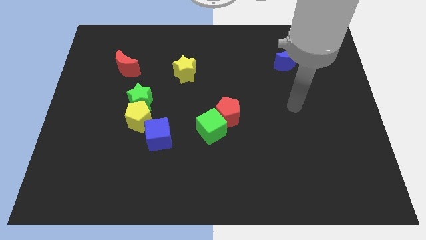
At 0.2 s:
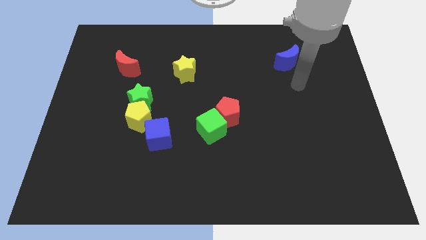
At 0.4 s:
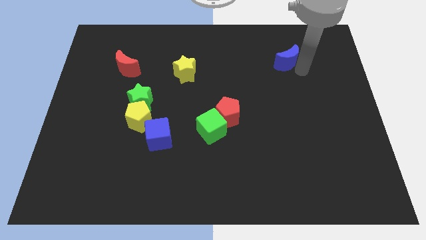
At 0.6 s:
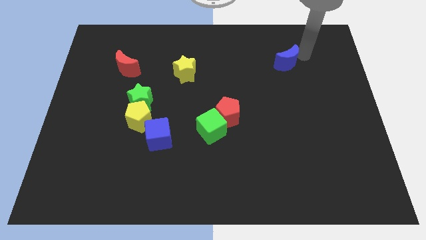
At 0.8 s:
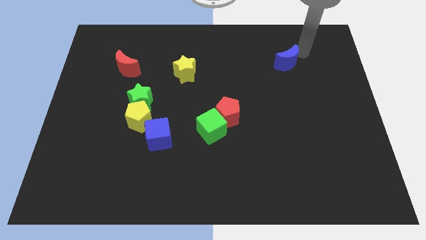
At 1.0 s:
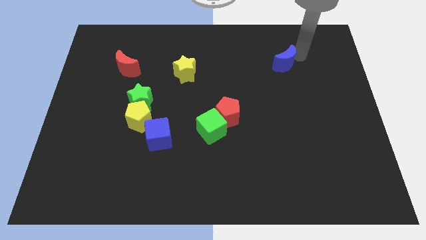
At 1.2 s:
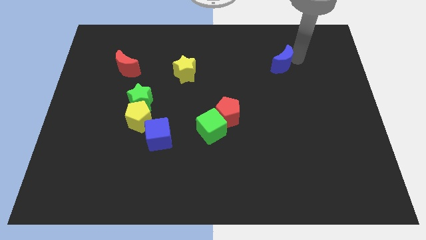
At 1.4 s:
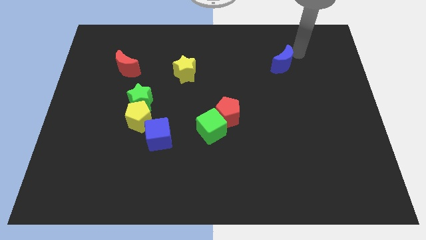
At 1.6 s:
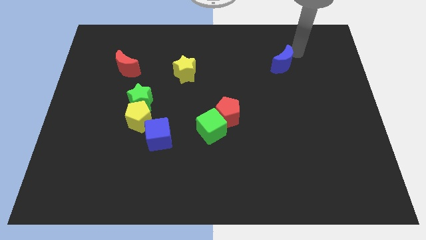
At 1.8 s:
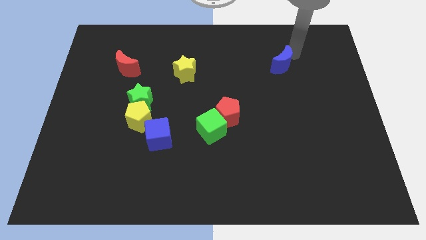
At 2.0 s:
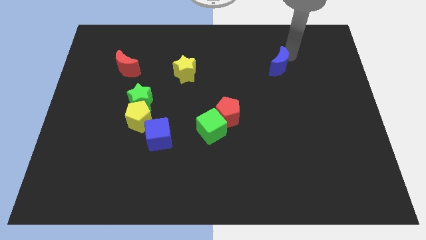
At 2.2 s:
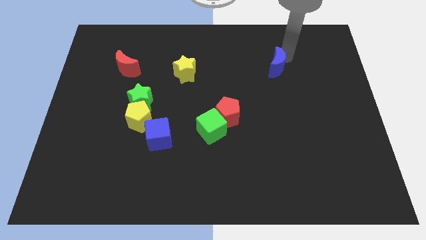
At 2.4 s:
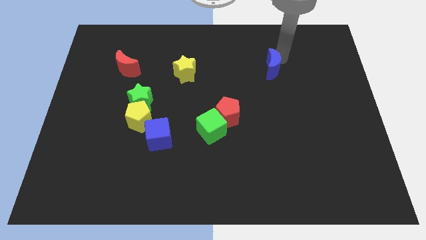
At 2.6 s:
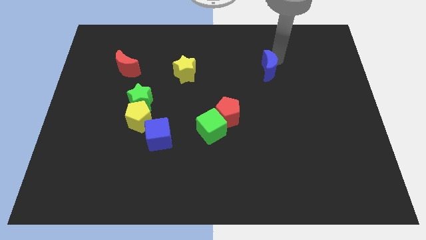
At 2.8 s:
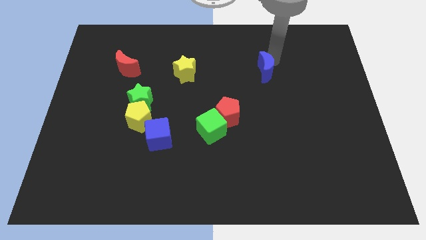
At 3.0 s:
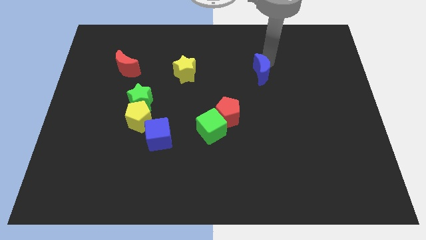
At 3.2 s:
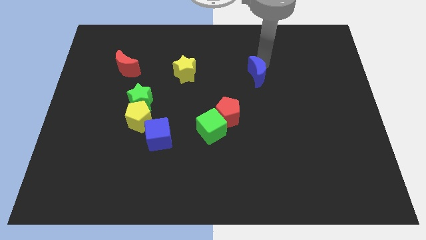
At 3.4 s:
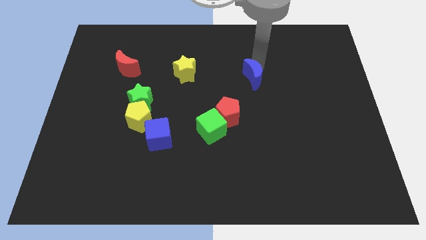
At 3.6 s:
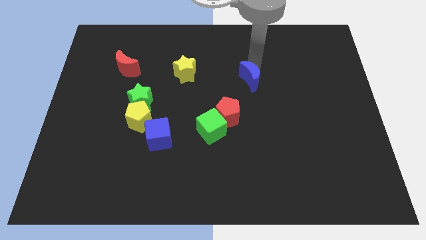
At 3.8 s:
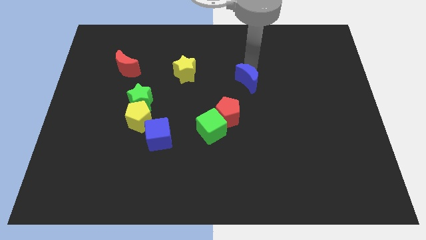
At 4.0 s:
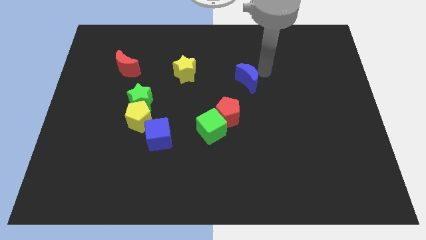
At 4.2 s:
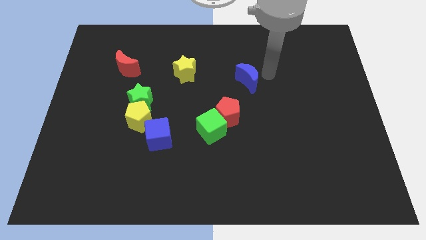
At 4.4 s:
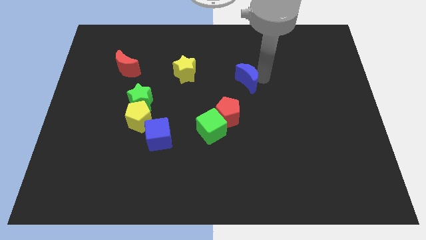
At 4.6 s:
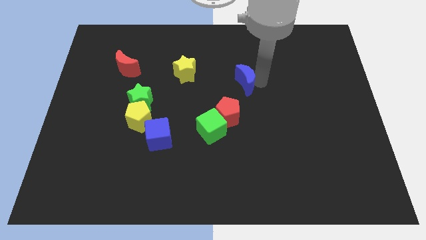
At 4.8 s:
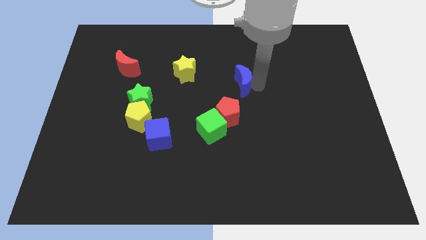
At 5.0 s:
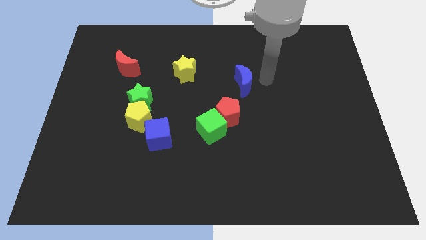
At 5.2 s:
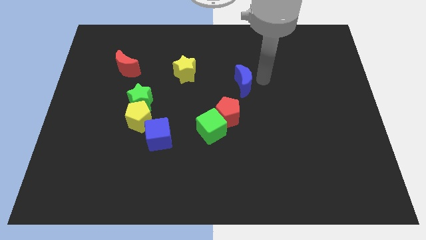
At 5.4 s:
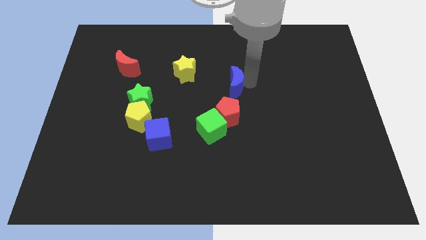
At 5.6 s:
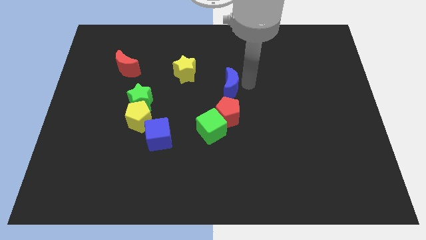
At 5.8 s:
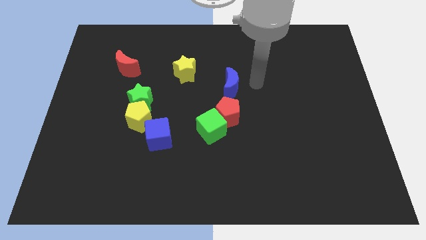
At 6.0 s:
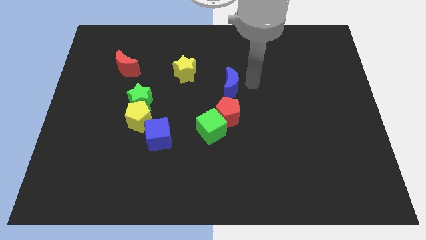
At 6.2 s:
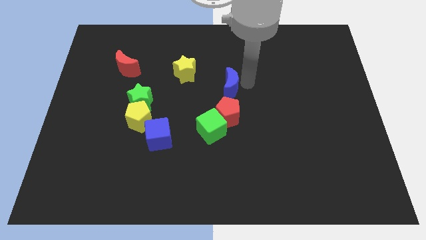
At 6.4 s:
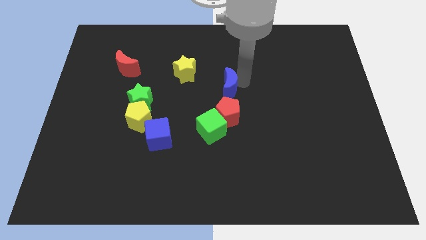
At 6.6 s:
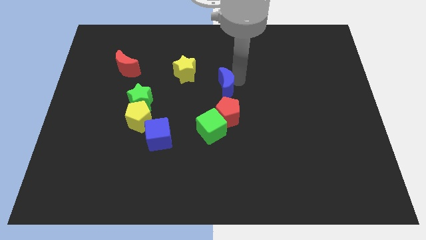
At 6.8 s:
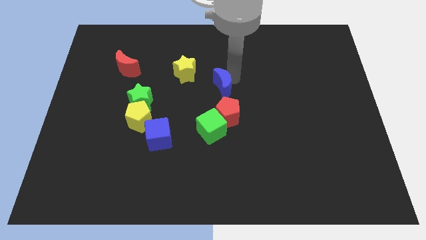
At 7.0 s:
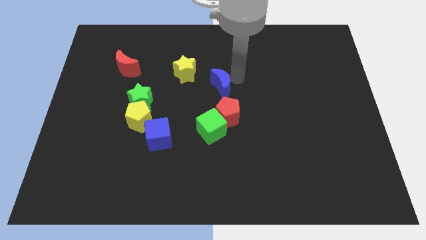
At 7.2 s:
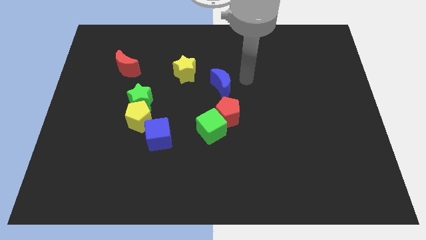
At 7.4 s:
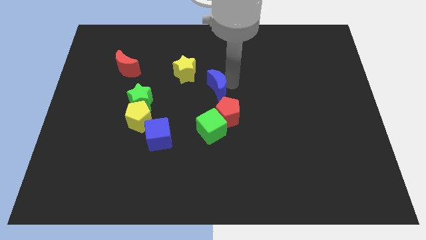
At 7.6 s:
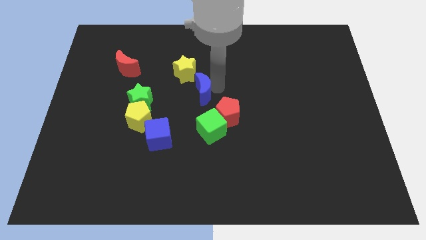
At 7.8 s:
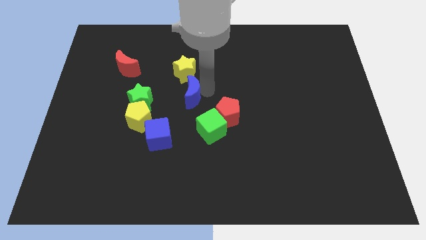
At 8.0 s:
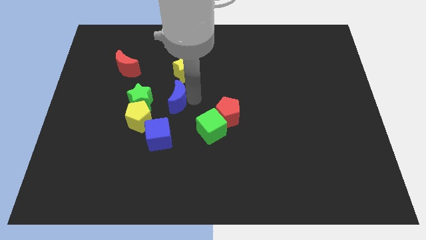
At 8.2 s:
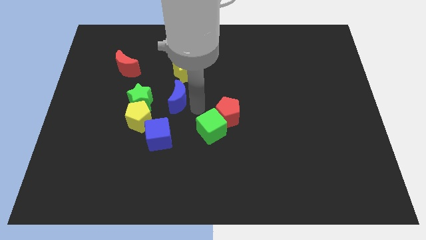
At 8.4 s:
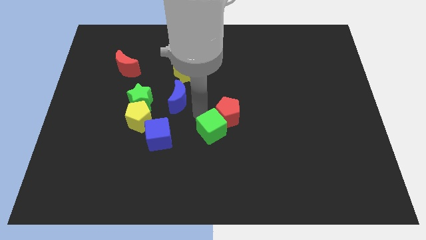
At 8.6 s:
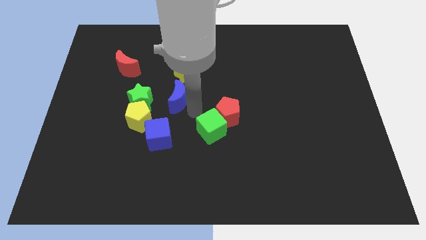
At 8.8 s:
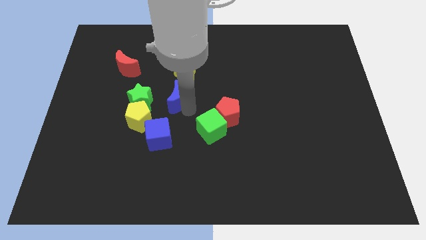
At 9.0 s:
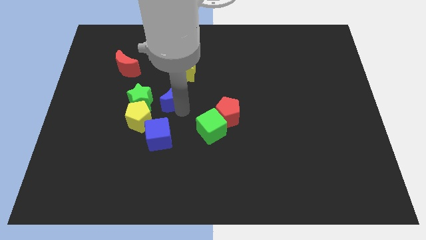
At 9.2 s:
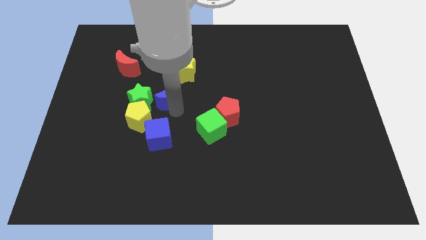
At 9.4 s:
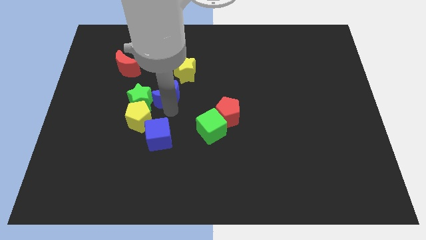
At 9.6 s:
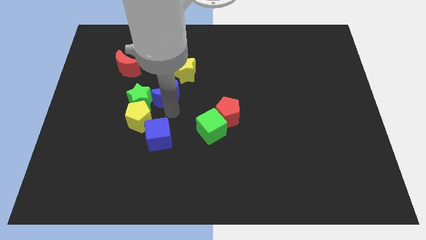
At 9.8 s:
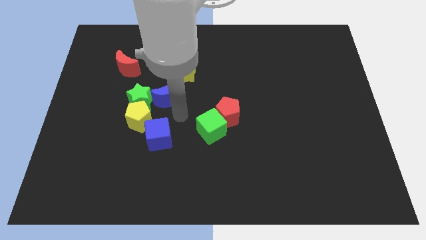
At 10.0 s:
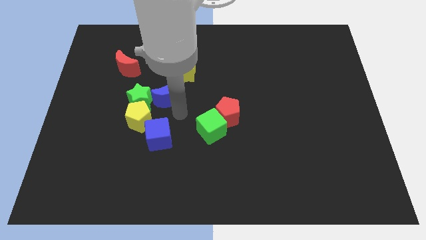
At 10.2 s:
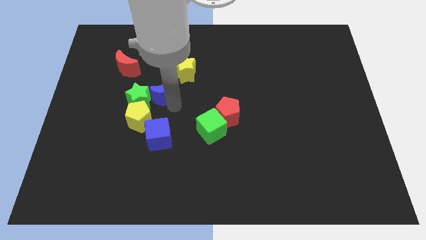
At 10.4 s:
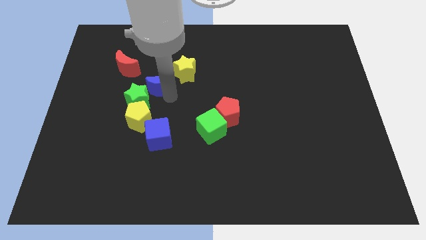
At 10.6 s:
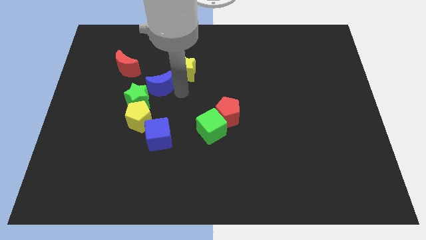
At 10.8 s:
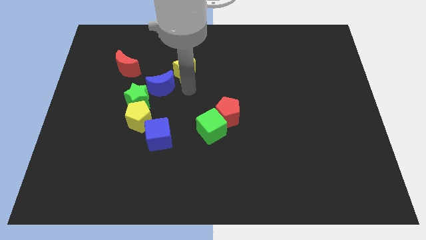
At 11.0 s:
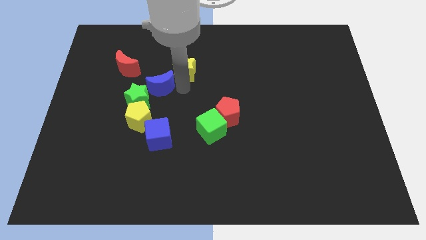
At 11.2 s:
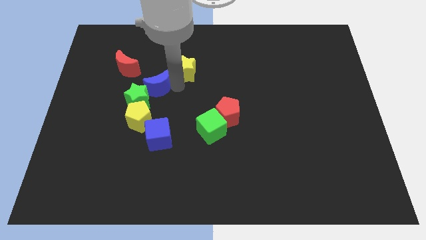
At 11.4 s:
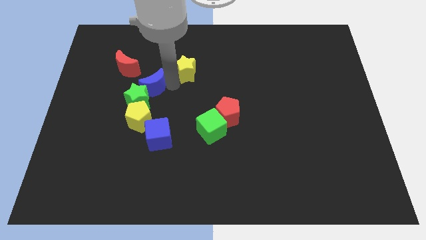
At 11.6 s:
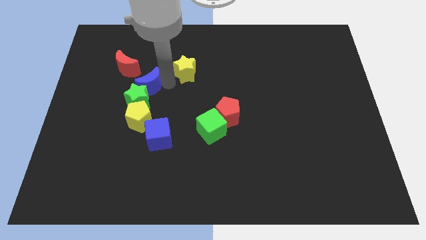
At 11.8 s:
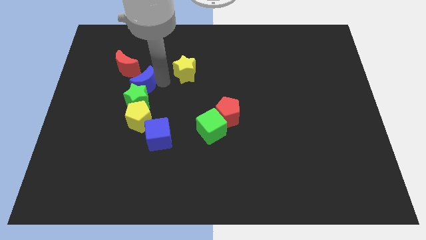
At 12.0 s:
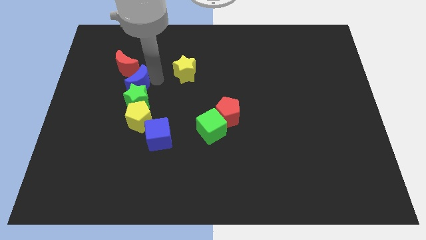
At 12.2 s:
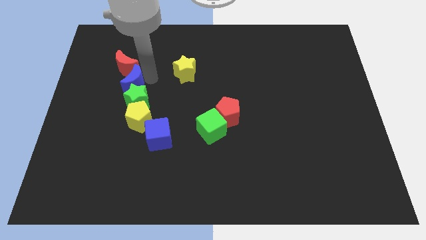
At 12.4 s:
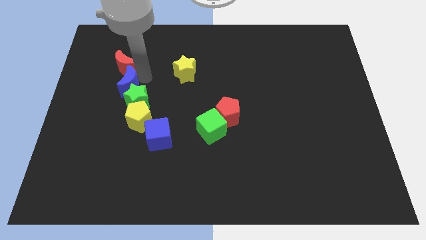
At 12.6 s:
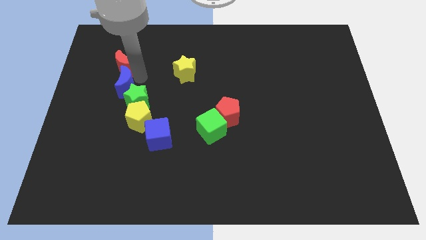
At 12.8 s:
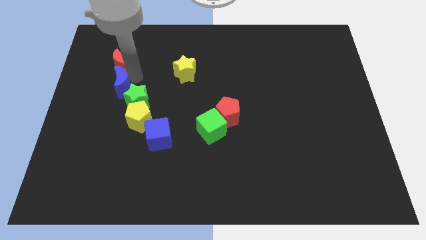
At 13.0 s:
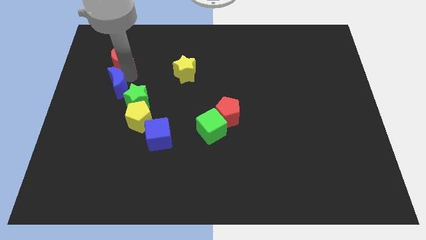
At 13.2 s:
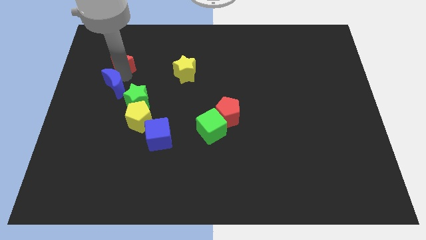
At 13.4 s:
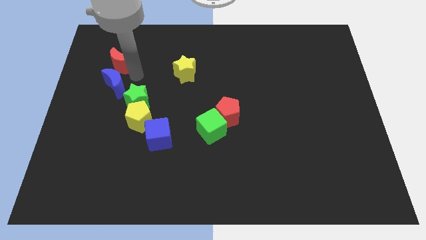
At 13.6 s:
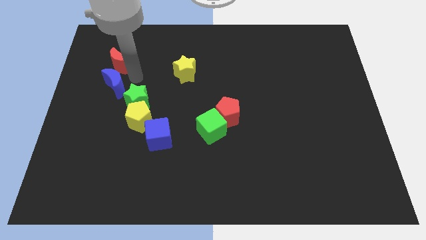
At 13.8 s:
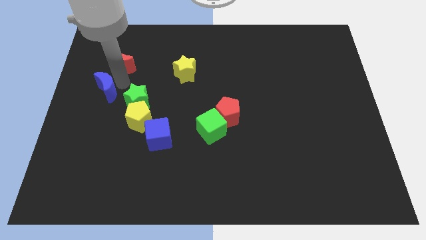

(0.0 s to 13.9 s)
push the blue moon to the left side
